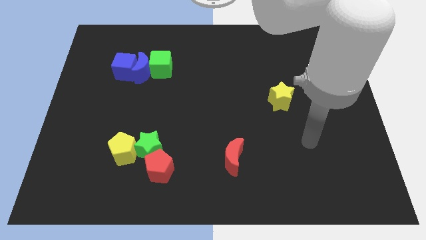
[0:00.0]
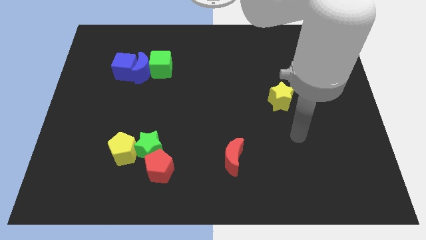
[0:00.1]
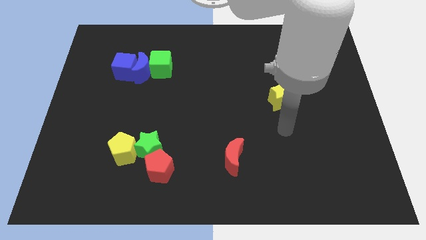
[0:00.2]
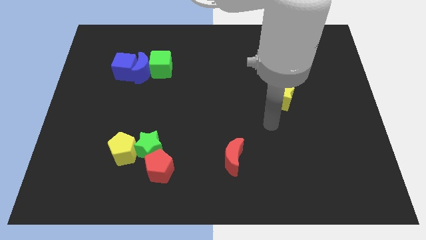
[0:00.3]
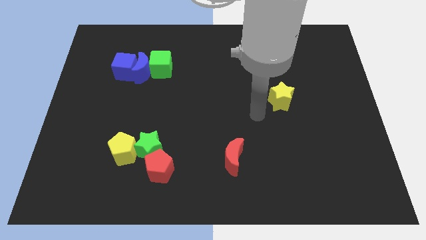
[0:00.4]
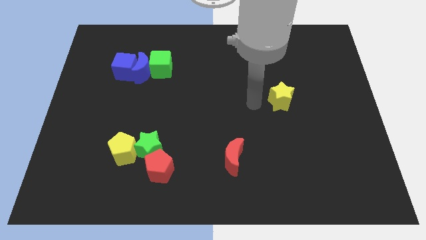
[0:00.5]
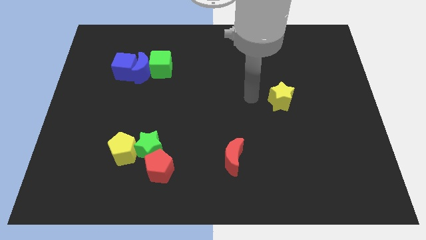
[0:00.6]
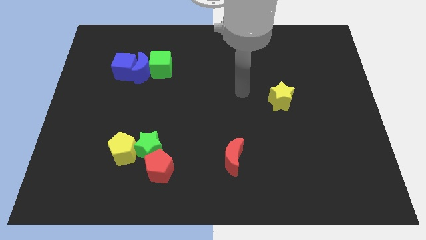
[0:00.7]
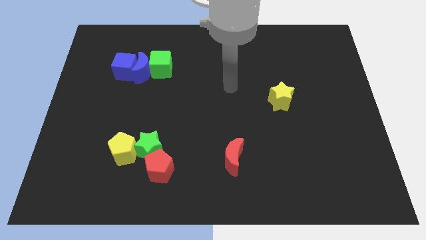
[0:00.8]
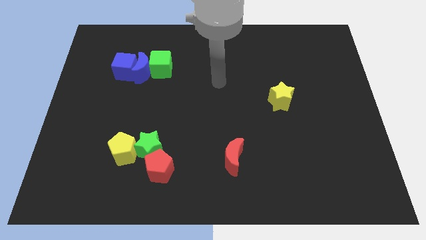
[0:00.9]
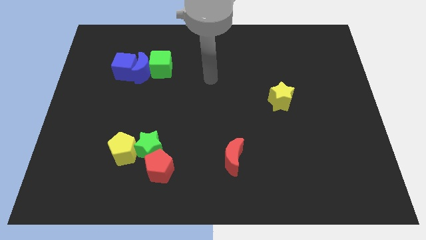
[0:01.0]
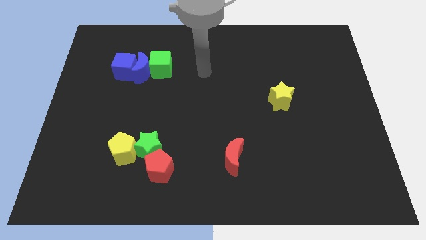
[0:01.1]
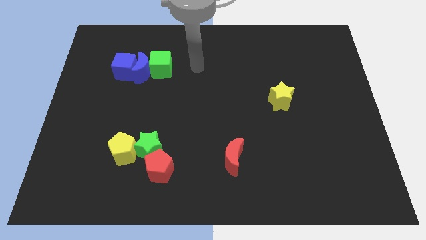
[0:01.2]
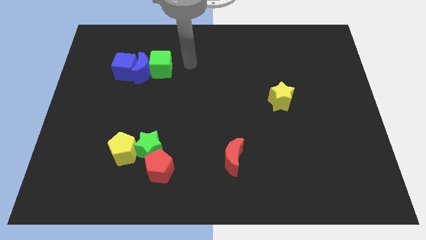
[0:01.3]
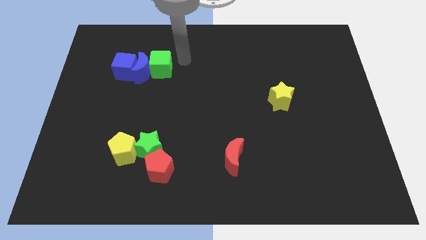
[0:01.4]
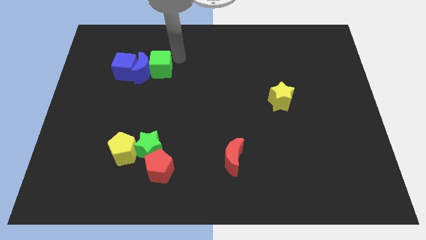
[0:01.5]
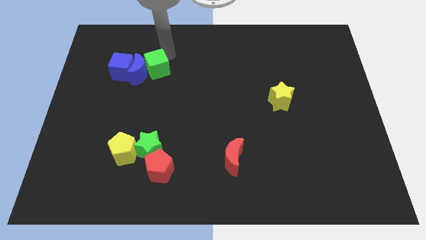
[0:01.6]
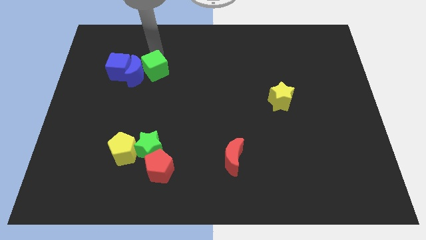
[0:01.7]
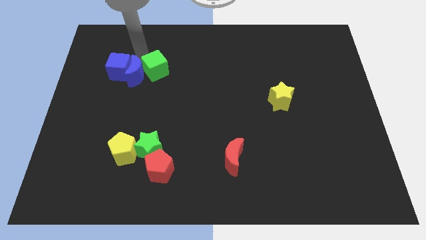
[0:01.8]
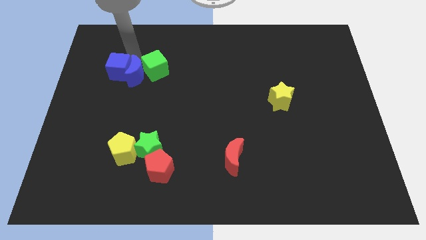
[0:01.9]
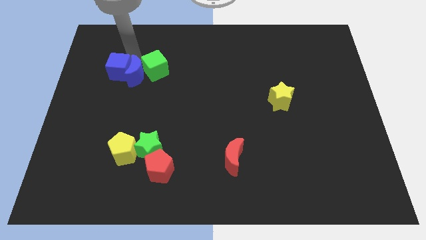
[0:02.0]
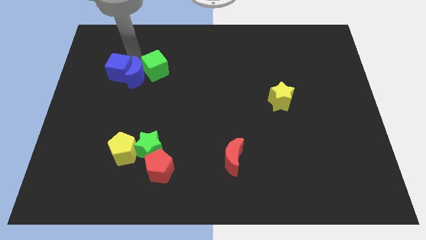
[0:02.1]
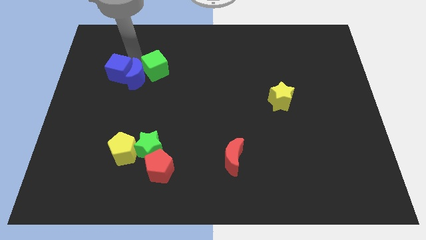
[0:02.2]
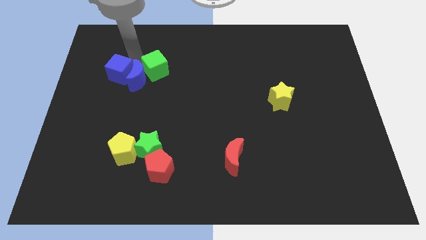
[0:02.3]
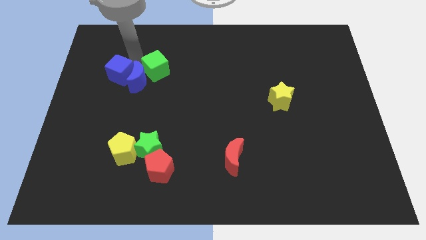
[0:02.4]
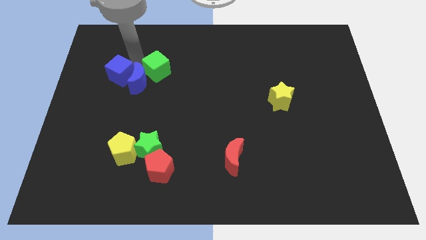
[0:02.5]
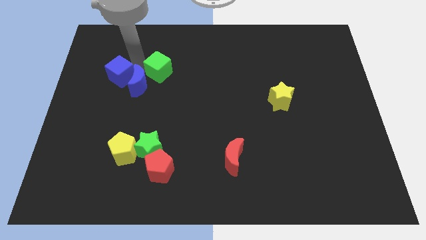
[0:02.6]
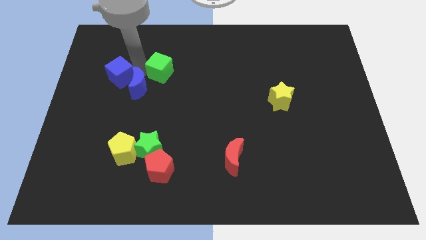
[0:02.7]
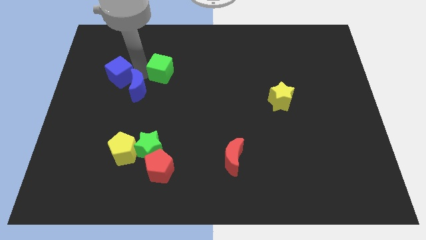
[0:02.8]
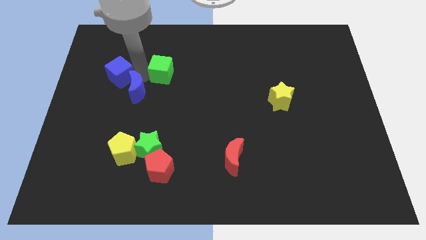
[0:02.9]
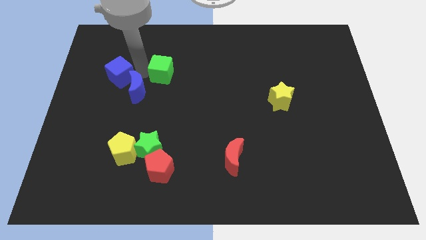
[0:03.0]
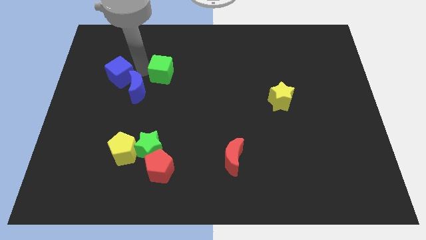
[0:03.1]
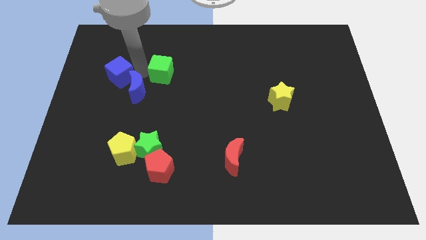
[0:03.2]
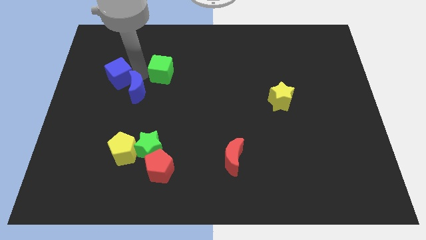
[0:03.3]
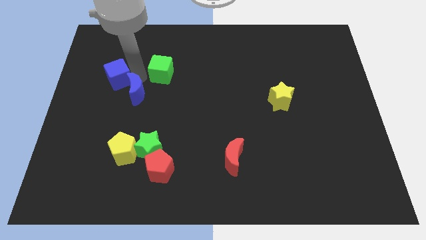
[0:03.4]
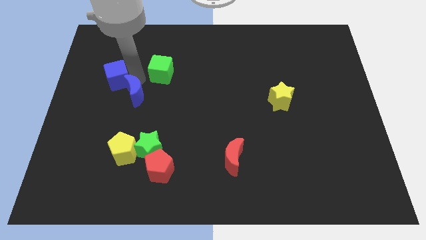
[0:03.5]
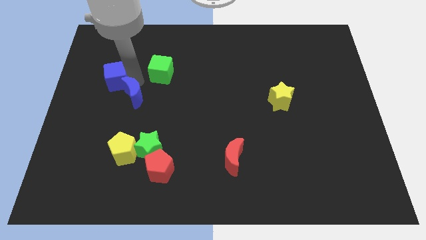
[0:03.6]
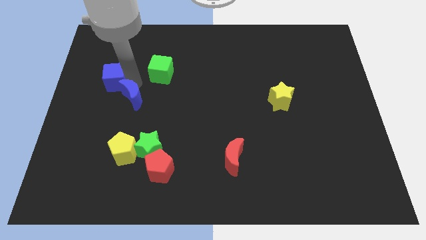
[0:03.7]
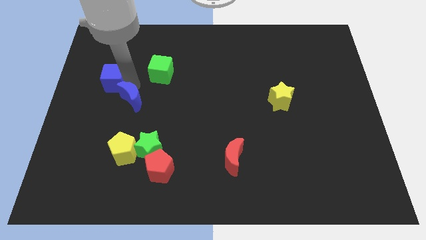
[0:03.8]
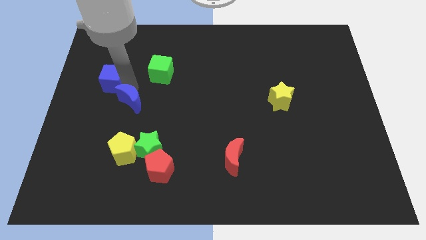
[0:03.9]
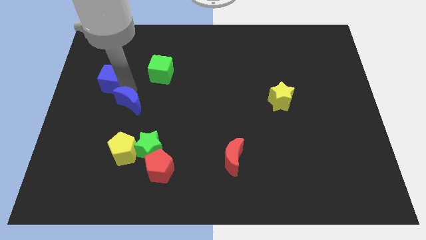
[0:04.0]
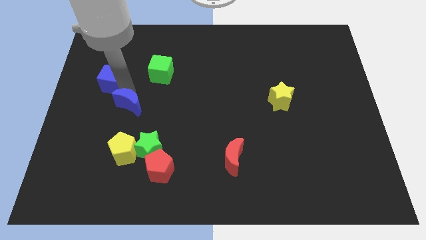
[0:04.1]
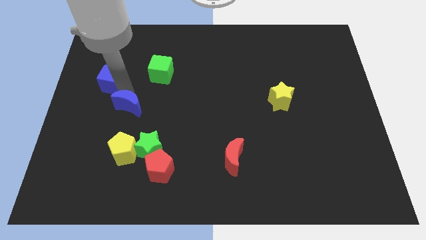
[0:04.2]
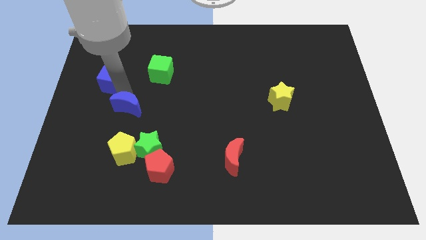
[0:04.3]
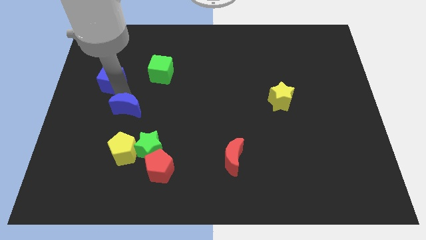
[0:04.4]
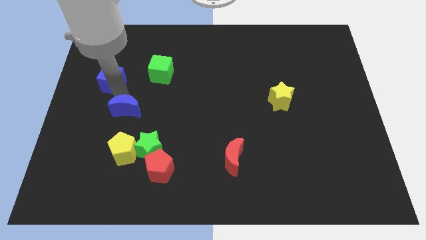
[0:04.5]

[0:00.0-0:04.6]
separate the blue moon from the blue cube and green cube

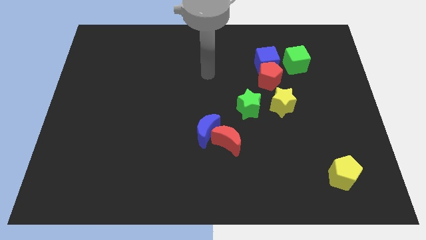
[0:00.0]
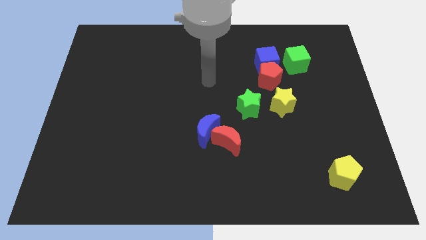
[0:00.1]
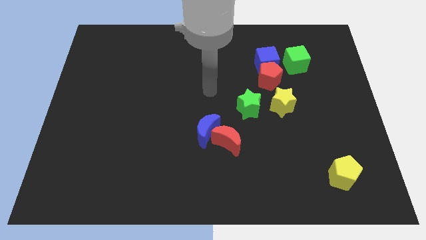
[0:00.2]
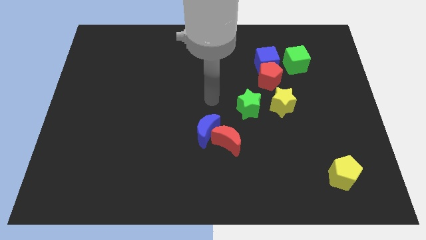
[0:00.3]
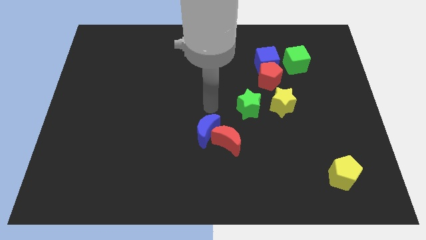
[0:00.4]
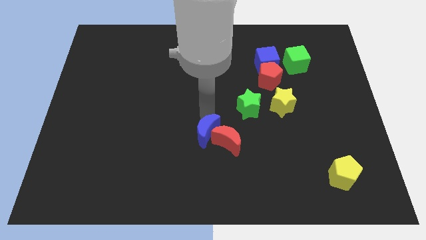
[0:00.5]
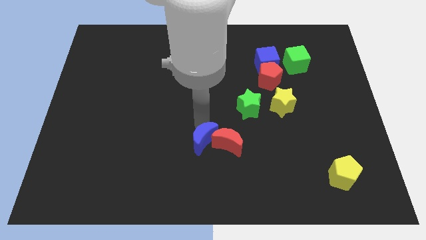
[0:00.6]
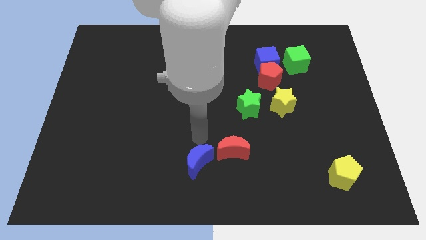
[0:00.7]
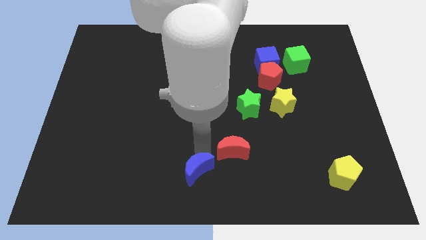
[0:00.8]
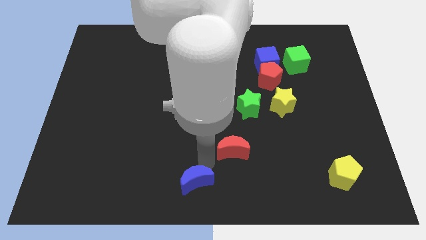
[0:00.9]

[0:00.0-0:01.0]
move the red moon away from the blue moon

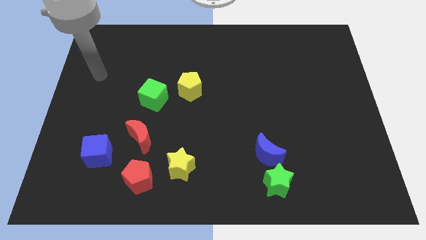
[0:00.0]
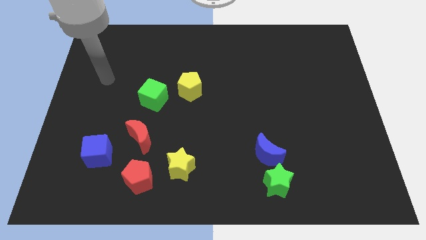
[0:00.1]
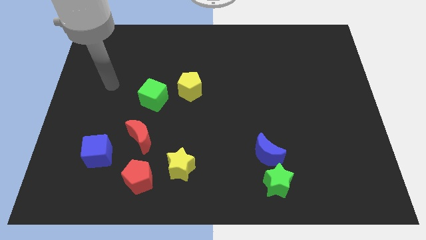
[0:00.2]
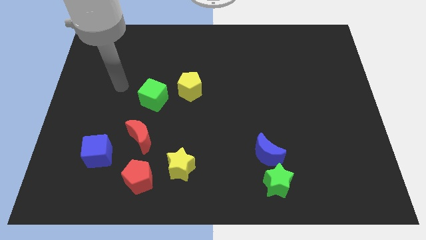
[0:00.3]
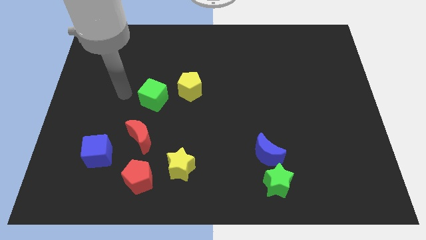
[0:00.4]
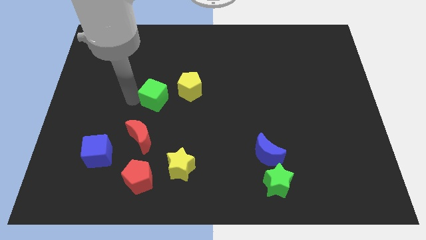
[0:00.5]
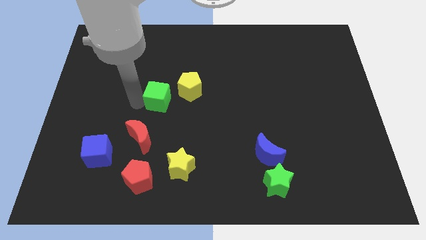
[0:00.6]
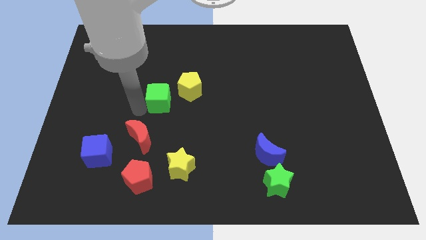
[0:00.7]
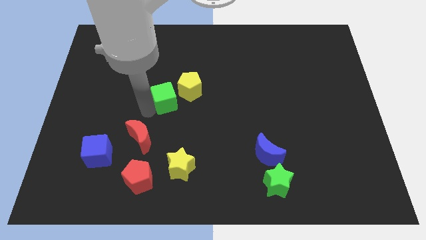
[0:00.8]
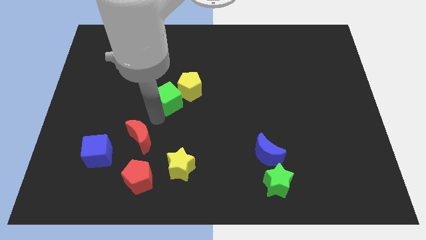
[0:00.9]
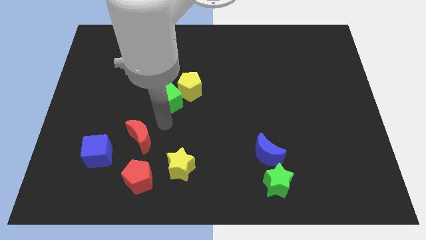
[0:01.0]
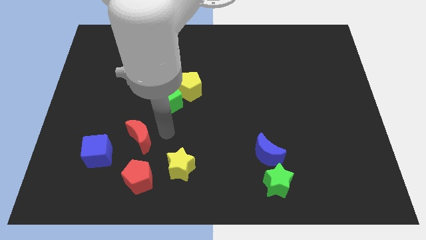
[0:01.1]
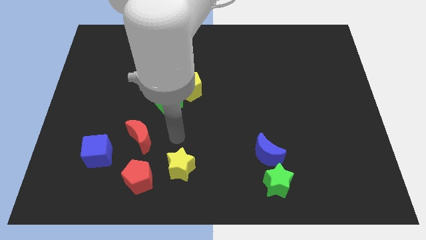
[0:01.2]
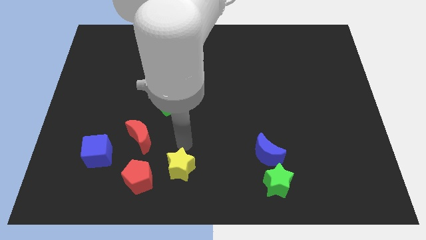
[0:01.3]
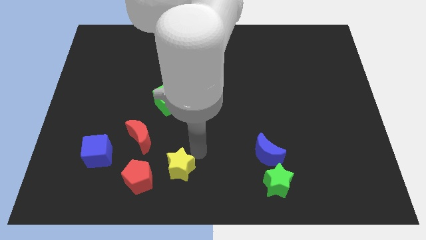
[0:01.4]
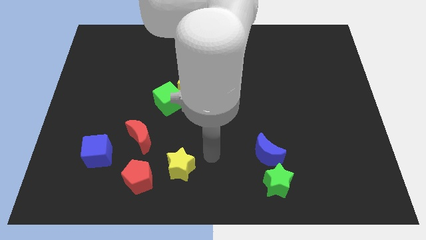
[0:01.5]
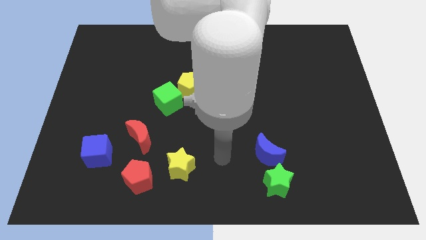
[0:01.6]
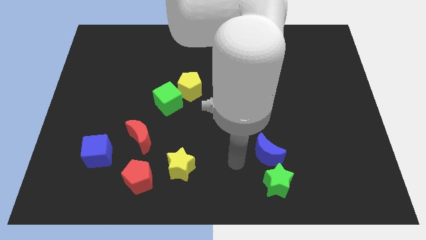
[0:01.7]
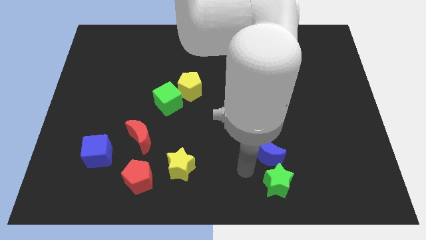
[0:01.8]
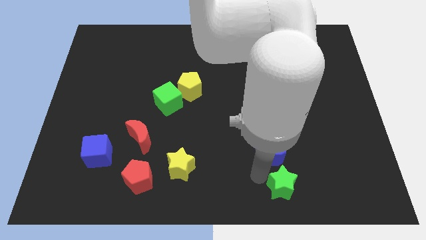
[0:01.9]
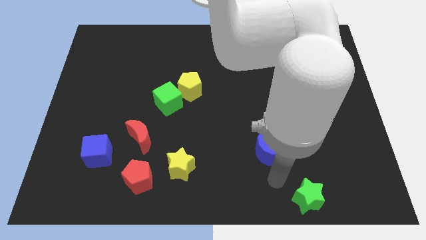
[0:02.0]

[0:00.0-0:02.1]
separate the blue moon from the green star

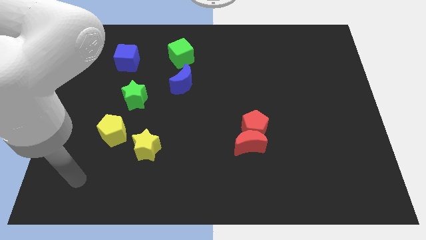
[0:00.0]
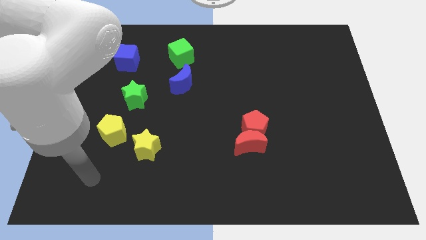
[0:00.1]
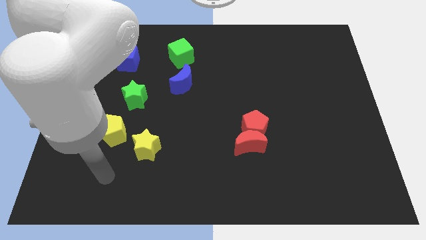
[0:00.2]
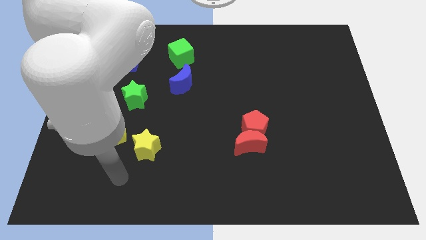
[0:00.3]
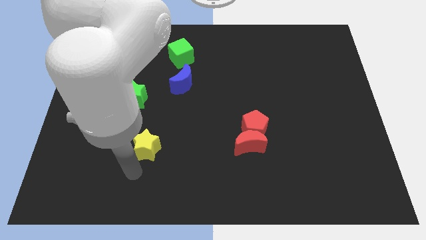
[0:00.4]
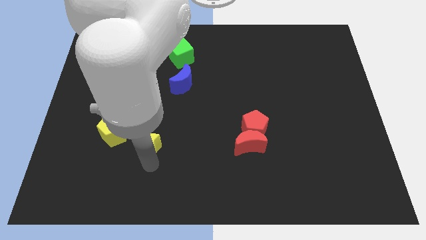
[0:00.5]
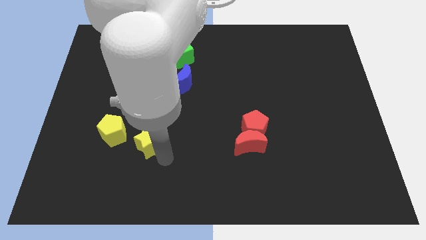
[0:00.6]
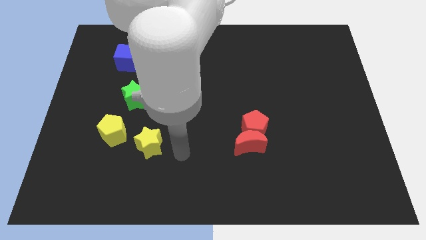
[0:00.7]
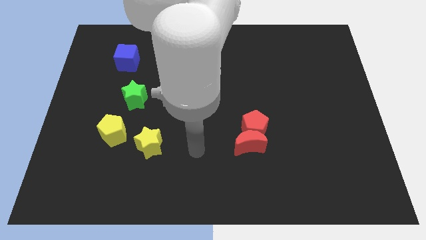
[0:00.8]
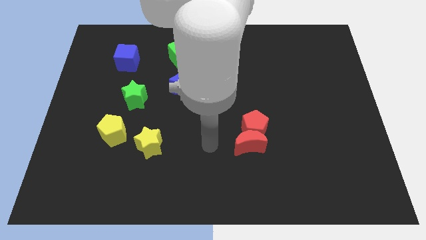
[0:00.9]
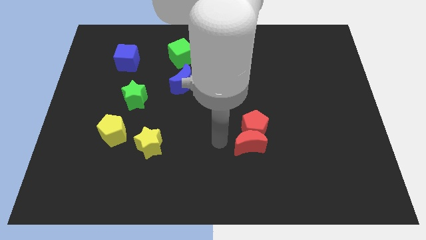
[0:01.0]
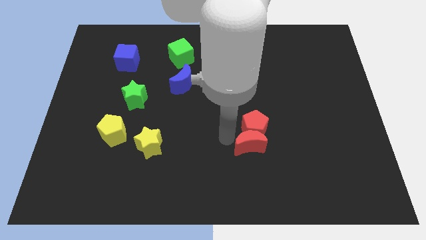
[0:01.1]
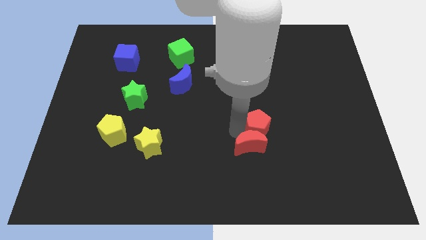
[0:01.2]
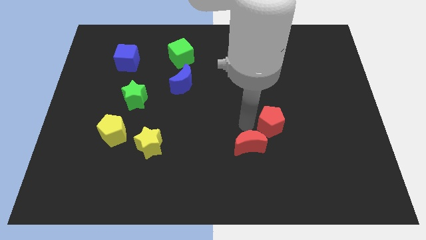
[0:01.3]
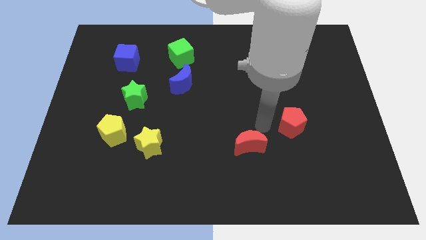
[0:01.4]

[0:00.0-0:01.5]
move the red moon away from the red pentagon

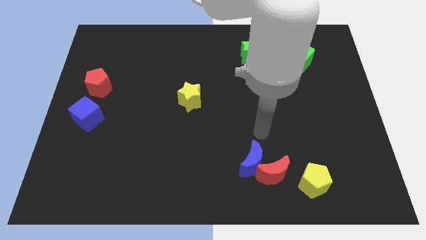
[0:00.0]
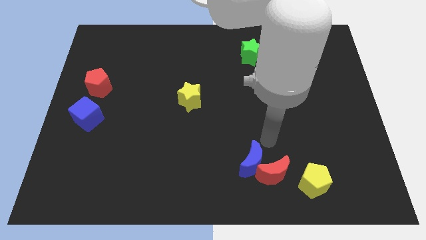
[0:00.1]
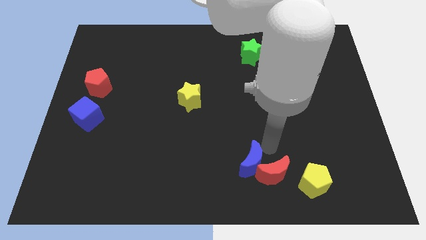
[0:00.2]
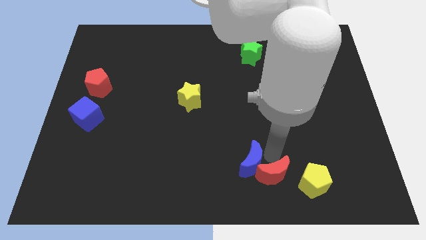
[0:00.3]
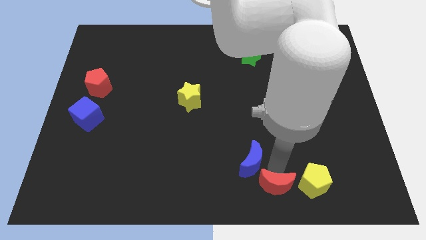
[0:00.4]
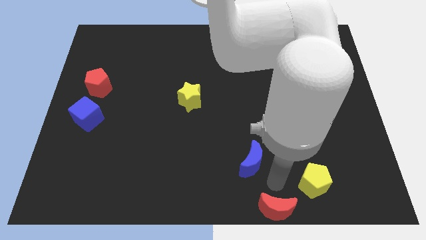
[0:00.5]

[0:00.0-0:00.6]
pull the blue moon apart from the red moon
